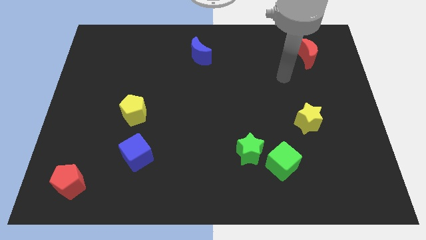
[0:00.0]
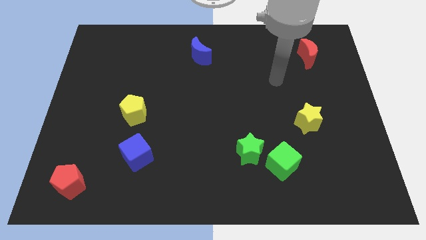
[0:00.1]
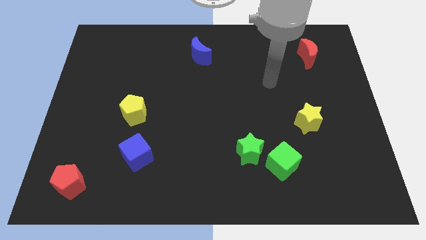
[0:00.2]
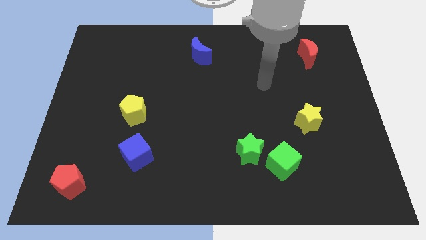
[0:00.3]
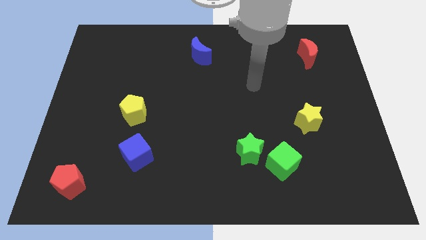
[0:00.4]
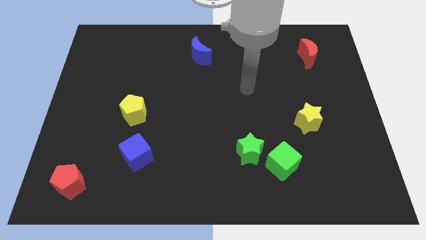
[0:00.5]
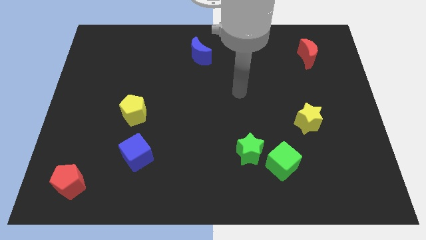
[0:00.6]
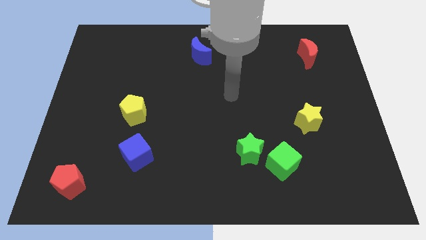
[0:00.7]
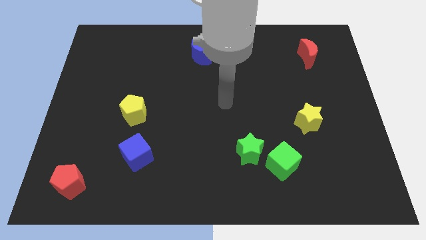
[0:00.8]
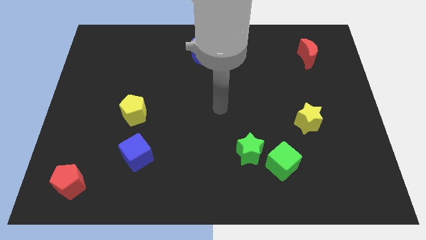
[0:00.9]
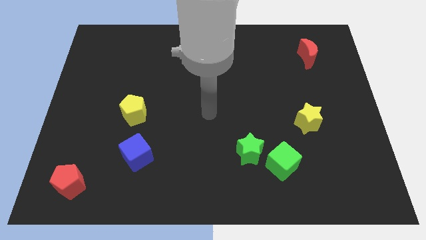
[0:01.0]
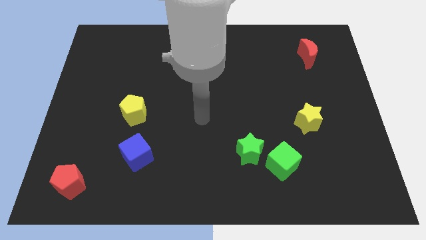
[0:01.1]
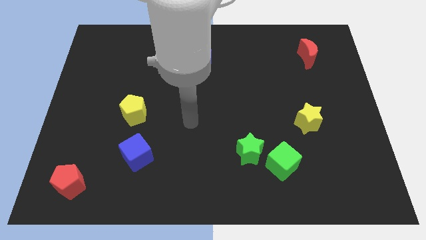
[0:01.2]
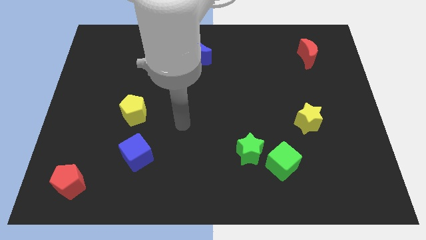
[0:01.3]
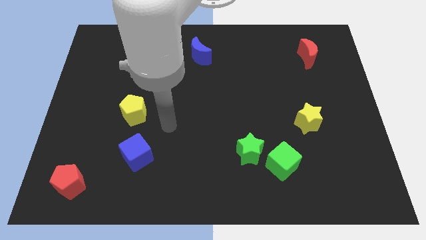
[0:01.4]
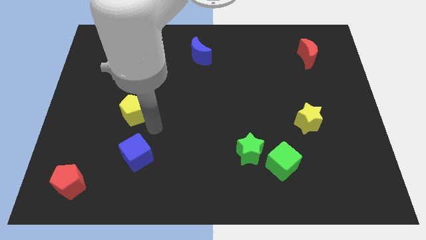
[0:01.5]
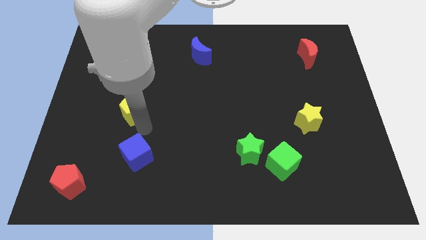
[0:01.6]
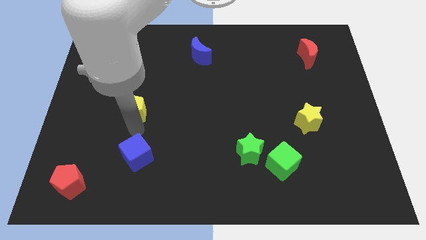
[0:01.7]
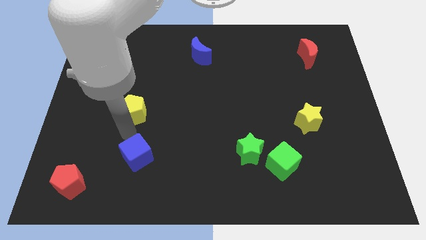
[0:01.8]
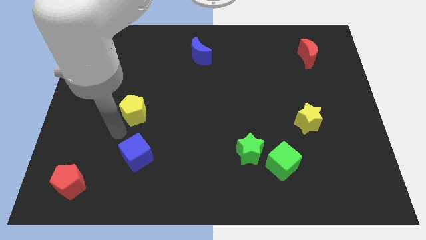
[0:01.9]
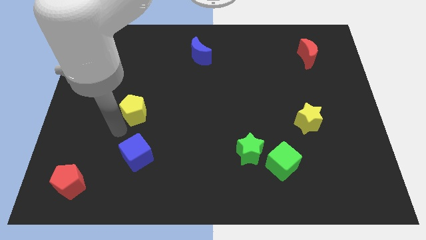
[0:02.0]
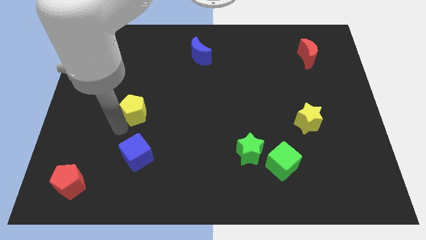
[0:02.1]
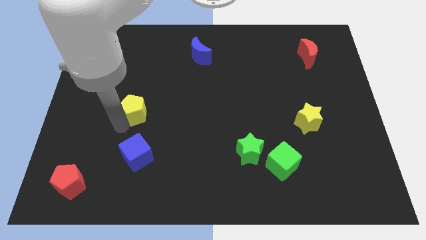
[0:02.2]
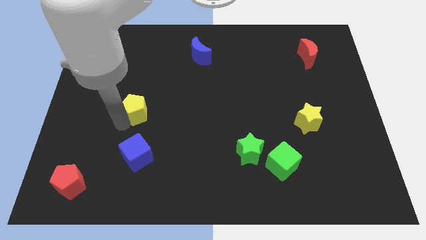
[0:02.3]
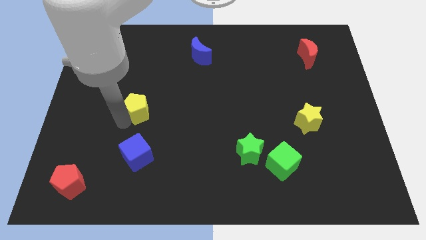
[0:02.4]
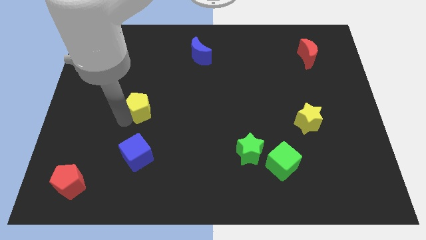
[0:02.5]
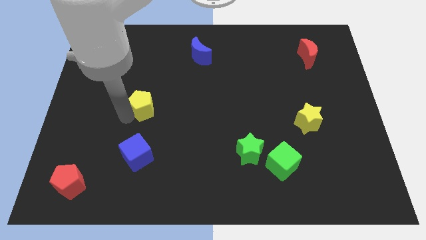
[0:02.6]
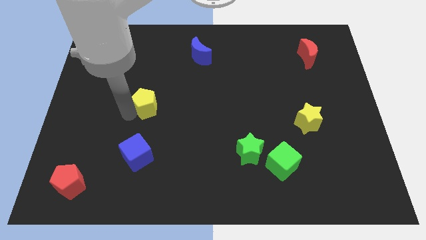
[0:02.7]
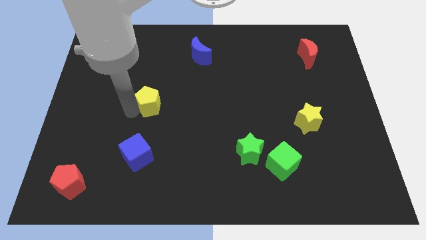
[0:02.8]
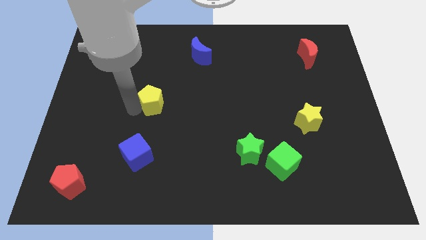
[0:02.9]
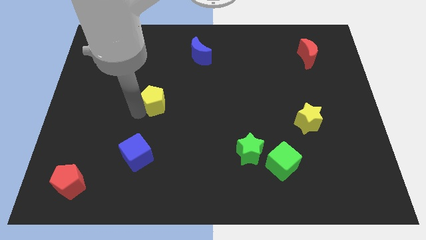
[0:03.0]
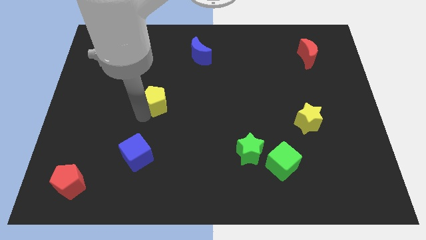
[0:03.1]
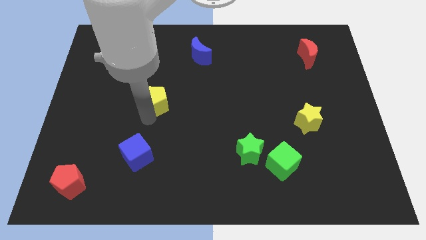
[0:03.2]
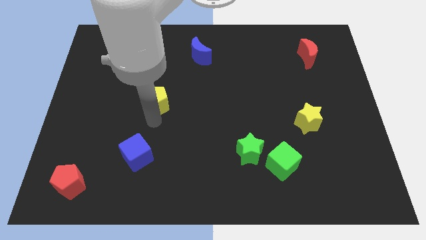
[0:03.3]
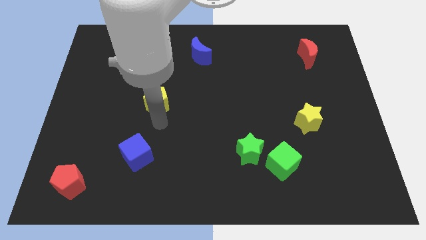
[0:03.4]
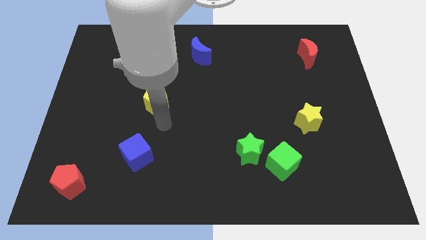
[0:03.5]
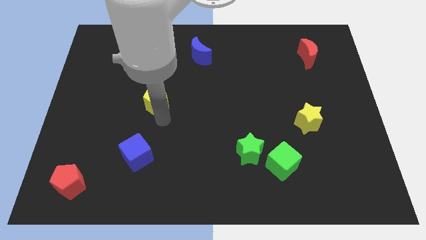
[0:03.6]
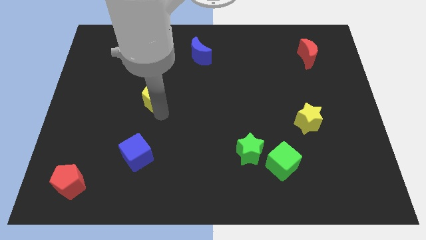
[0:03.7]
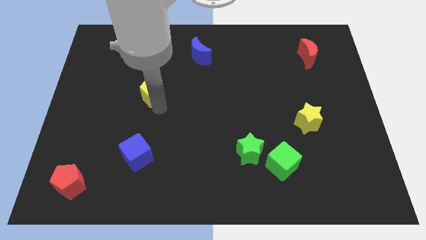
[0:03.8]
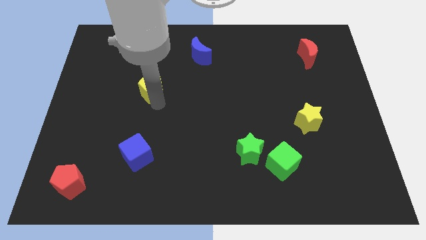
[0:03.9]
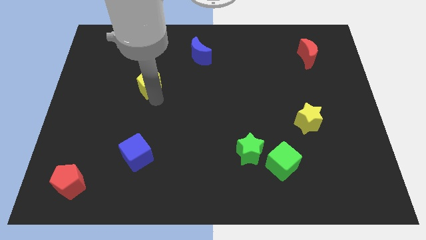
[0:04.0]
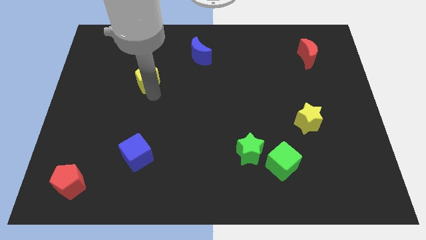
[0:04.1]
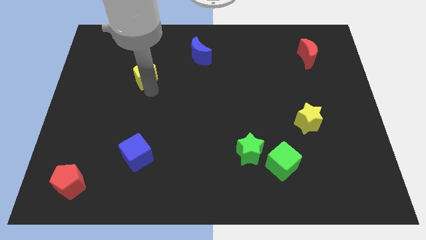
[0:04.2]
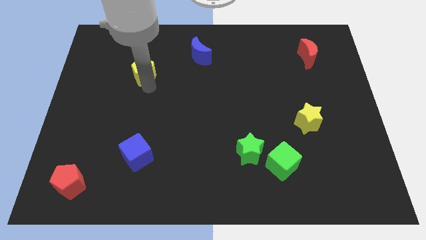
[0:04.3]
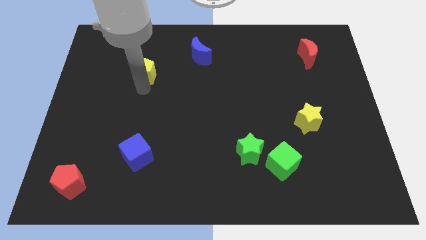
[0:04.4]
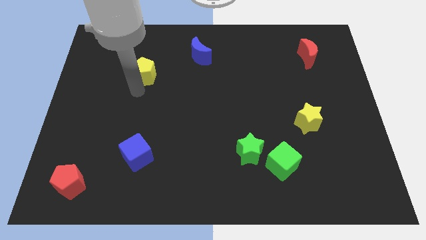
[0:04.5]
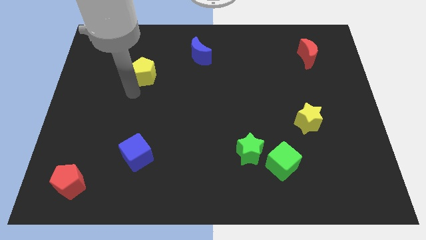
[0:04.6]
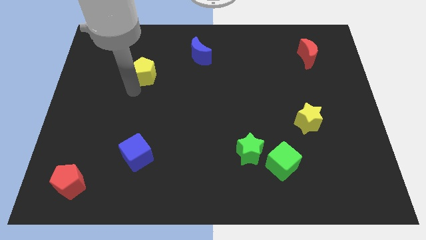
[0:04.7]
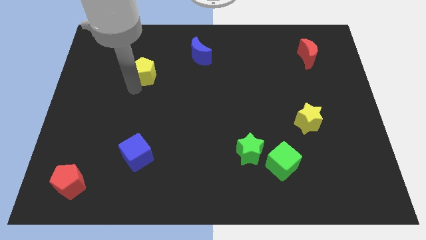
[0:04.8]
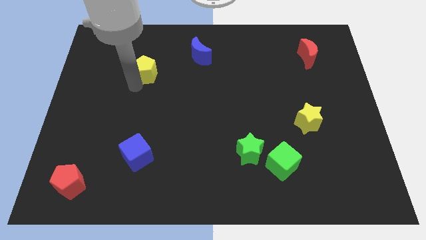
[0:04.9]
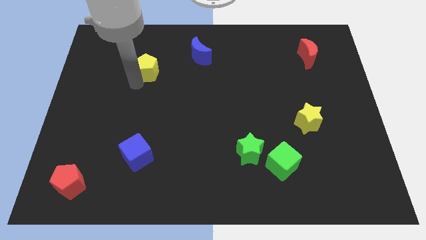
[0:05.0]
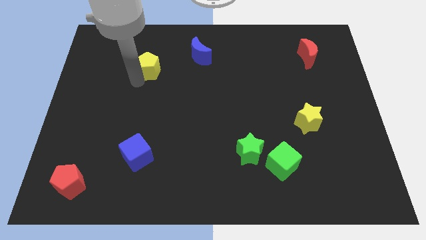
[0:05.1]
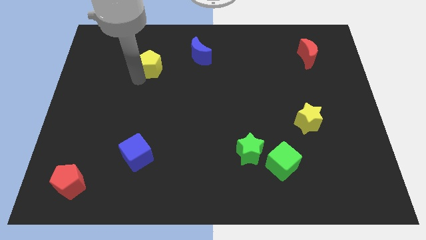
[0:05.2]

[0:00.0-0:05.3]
put the yellow pentagon just left of the blue moon

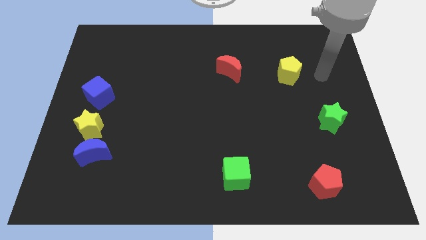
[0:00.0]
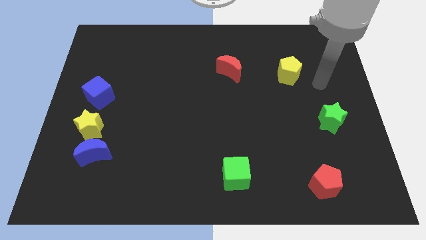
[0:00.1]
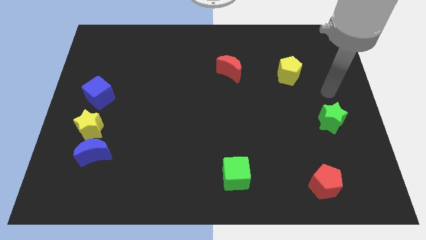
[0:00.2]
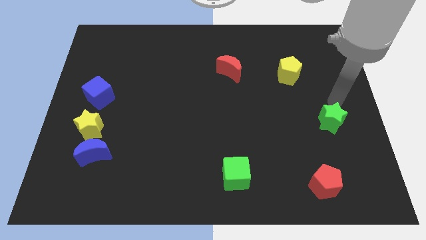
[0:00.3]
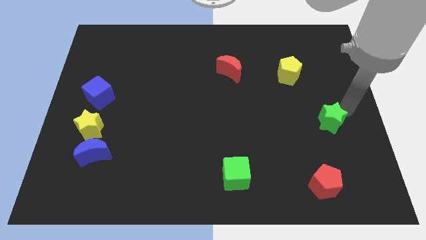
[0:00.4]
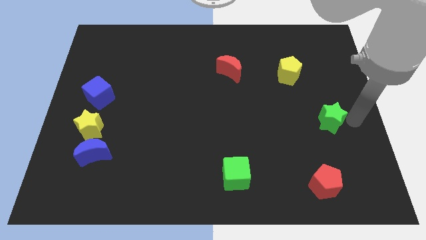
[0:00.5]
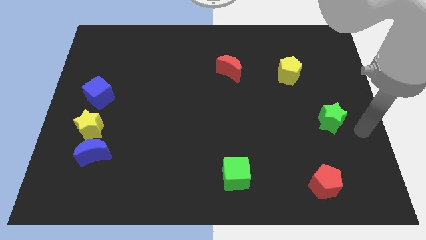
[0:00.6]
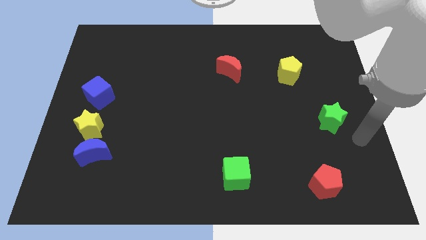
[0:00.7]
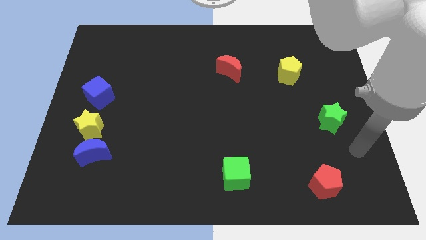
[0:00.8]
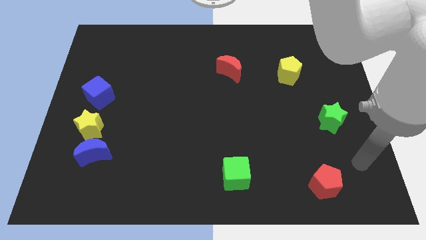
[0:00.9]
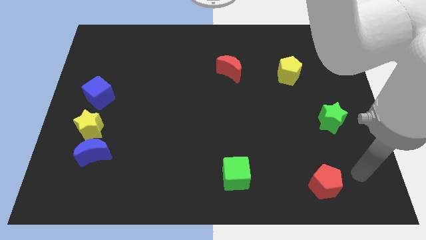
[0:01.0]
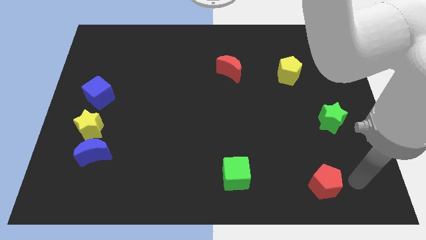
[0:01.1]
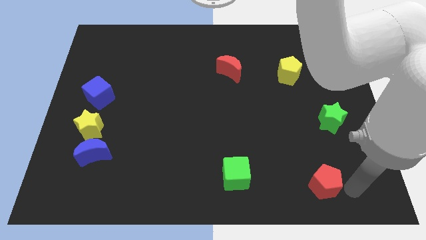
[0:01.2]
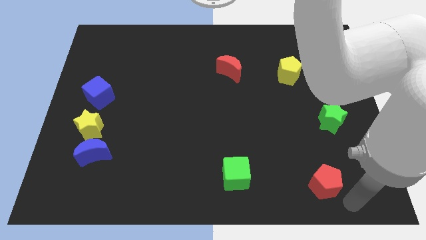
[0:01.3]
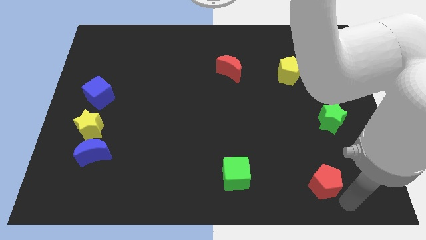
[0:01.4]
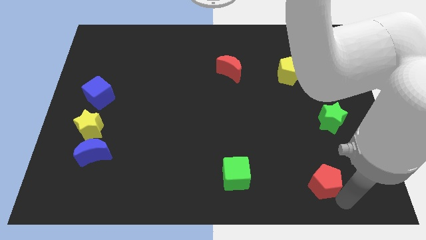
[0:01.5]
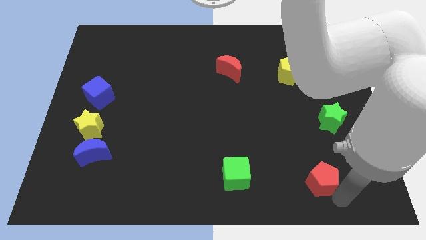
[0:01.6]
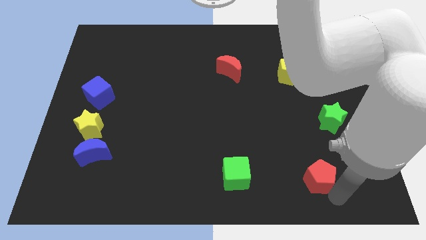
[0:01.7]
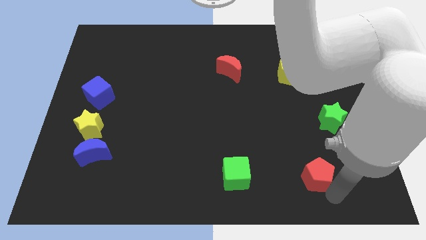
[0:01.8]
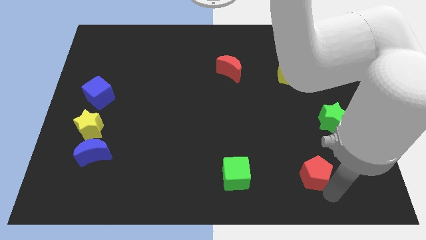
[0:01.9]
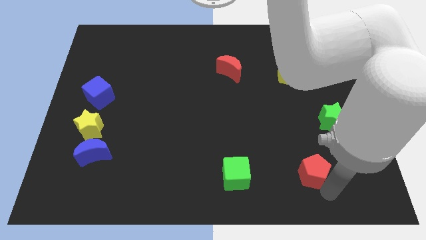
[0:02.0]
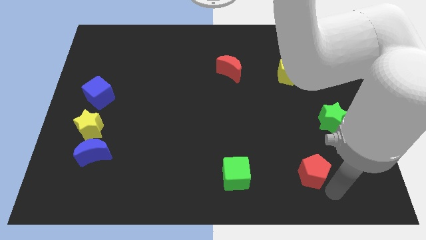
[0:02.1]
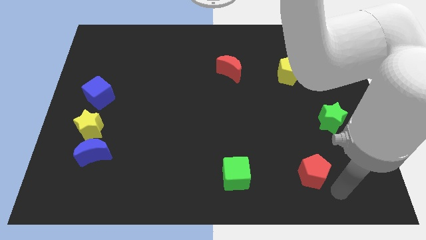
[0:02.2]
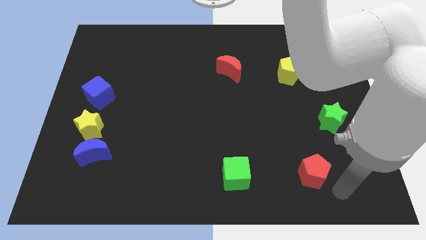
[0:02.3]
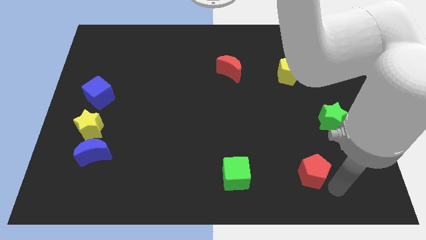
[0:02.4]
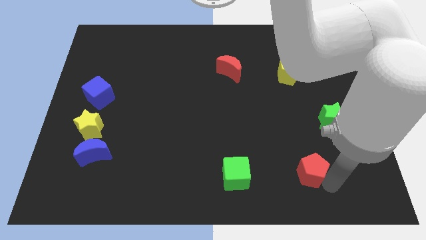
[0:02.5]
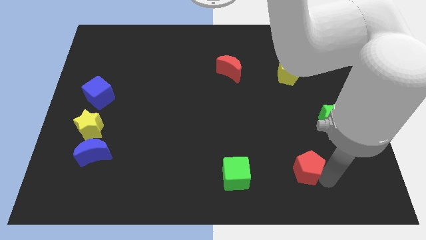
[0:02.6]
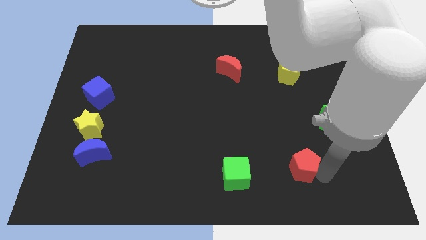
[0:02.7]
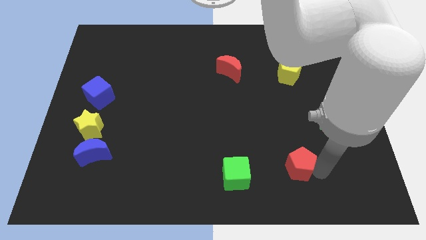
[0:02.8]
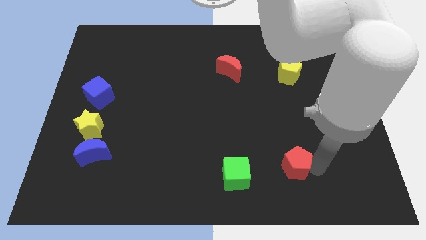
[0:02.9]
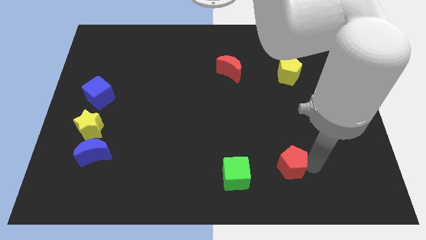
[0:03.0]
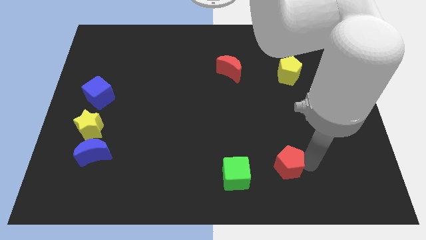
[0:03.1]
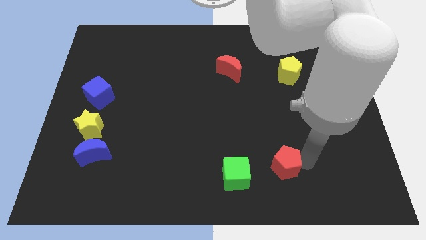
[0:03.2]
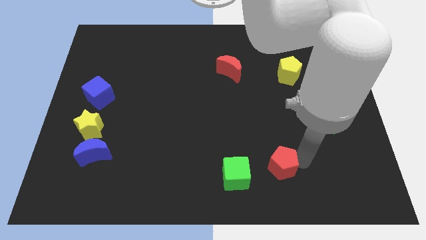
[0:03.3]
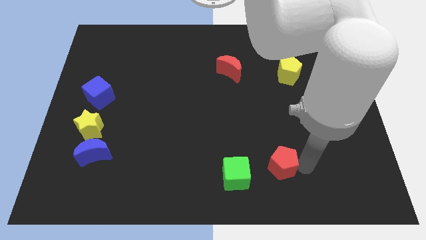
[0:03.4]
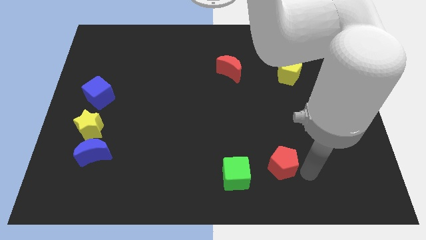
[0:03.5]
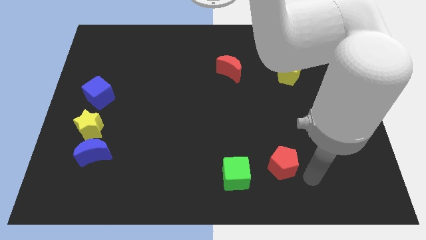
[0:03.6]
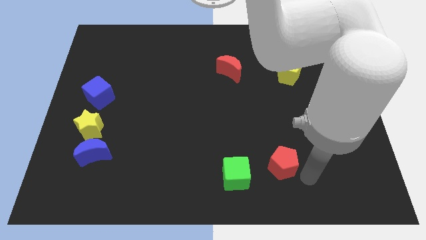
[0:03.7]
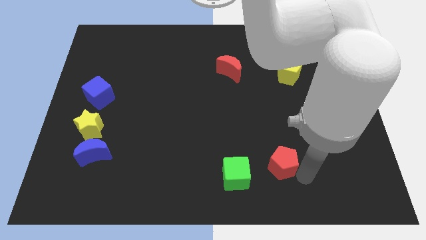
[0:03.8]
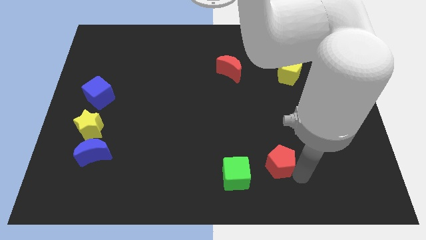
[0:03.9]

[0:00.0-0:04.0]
push the red pentagon to the top right side of the green cube
